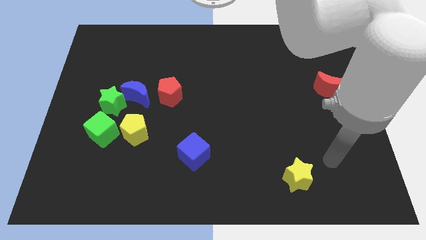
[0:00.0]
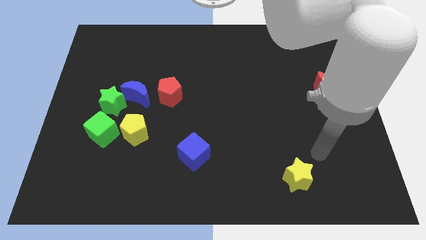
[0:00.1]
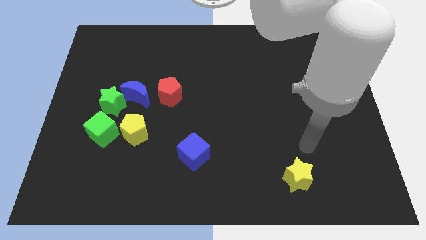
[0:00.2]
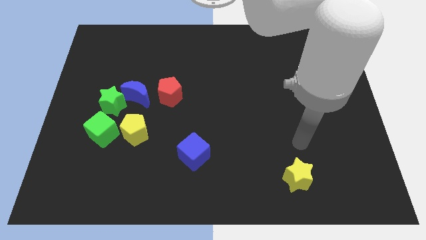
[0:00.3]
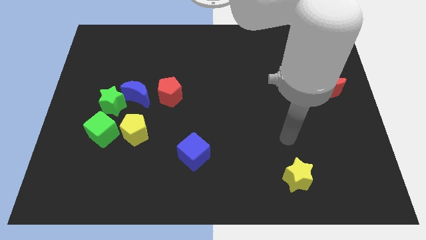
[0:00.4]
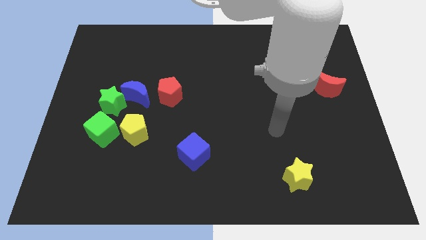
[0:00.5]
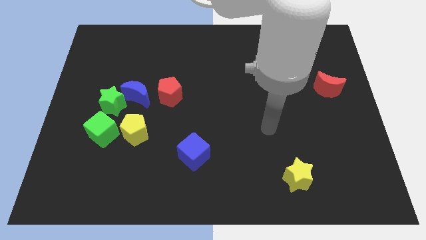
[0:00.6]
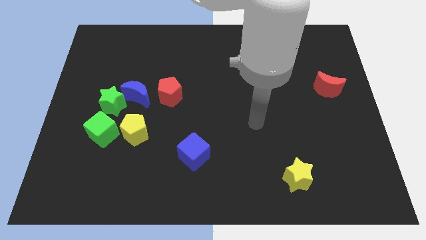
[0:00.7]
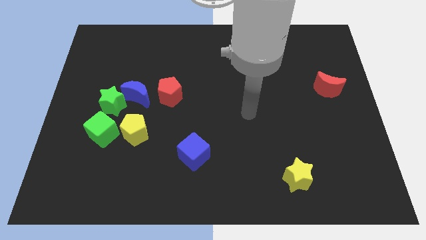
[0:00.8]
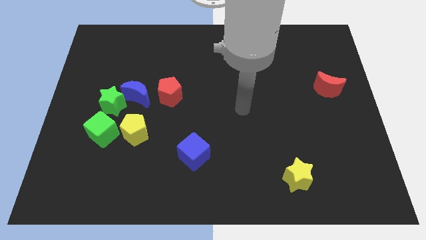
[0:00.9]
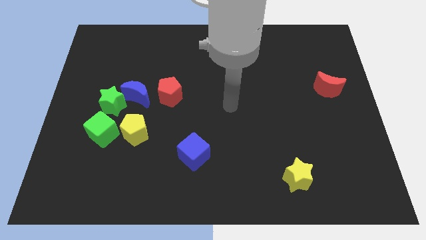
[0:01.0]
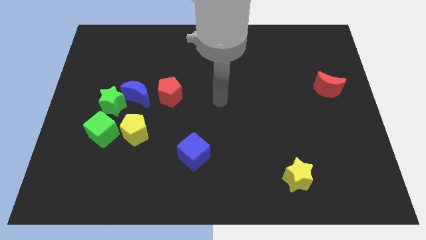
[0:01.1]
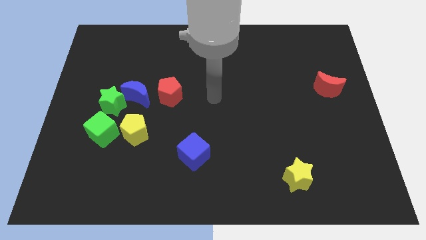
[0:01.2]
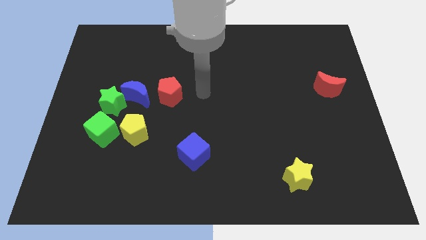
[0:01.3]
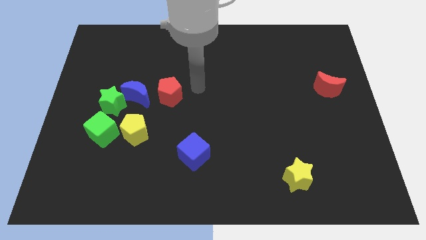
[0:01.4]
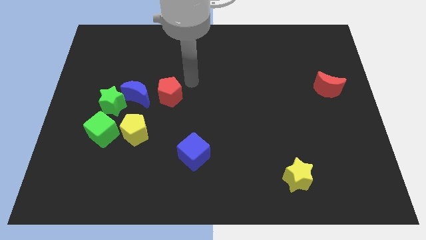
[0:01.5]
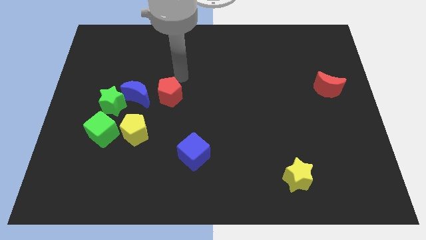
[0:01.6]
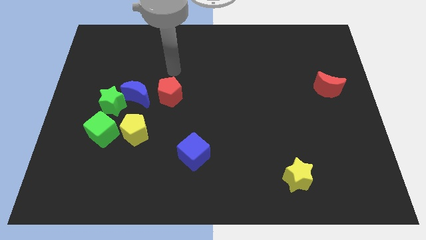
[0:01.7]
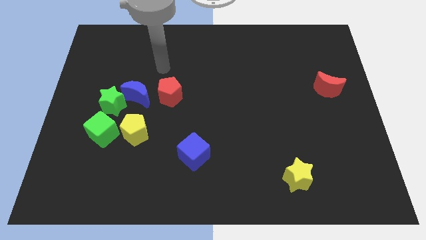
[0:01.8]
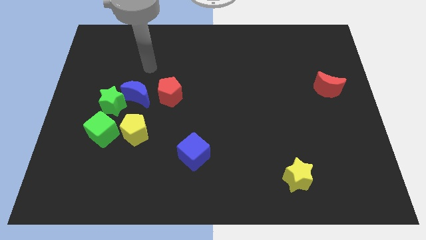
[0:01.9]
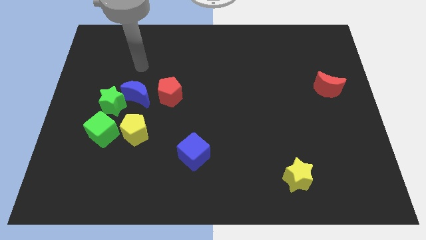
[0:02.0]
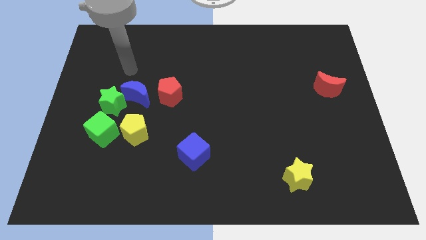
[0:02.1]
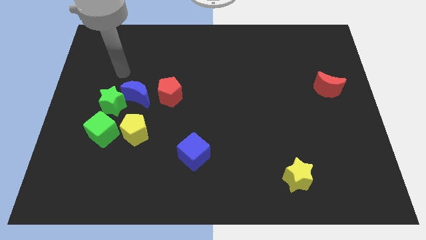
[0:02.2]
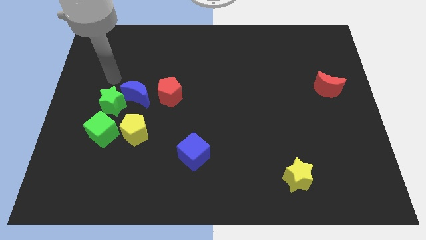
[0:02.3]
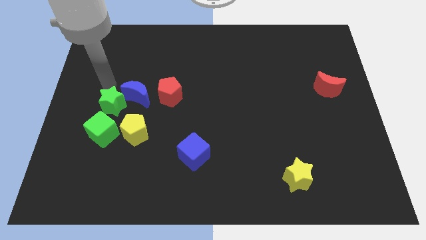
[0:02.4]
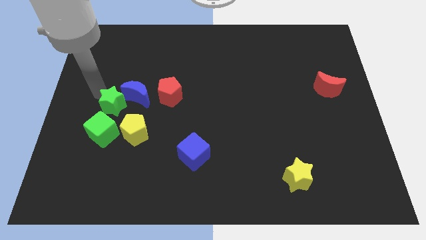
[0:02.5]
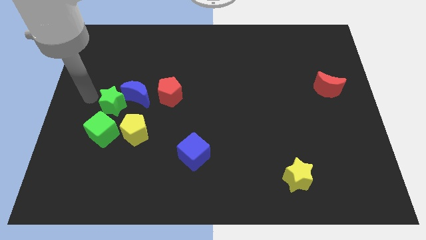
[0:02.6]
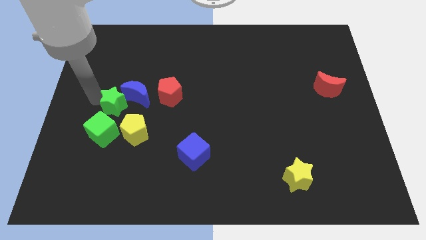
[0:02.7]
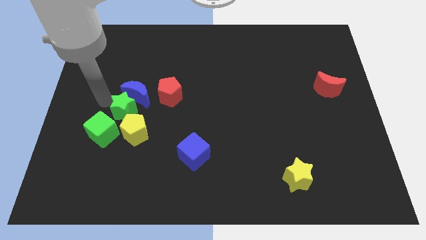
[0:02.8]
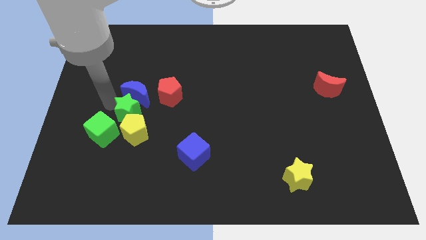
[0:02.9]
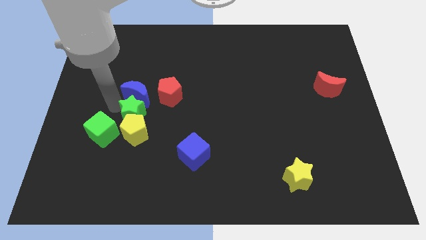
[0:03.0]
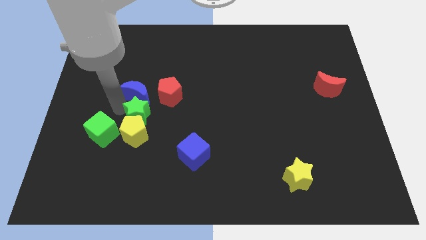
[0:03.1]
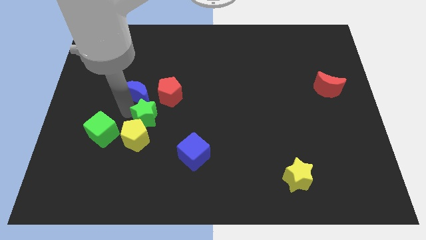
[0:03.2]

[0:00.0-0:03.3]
push the green star to the right slightly

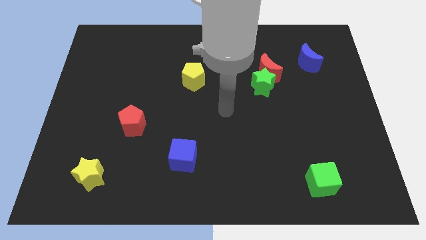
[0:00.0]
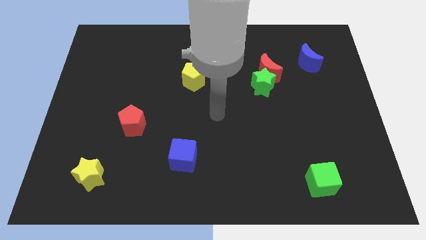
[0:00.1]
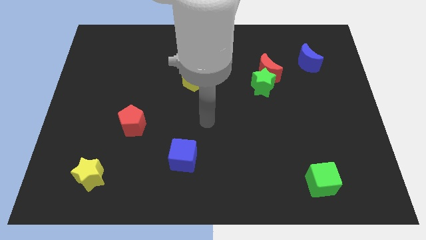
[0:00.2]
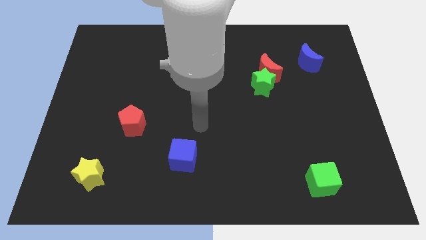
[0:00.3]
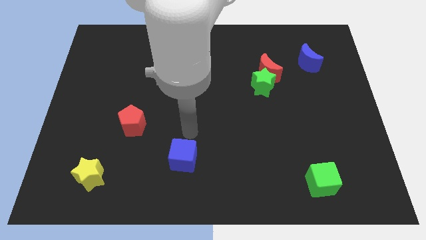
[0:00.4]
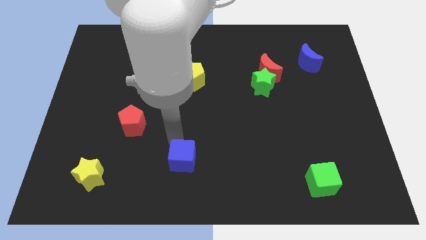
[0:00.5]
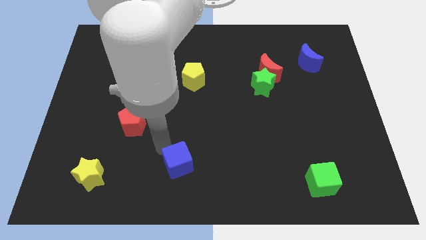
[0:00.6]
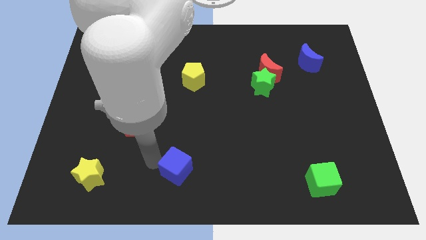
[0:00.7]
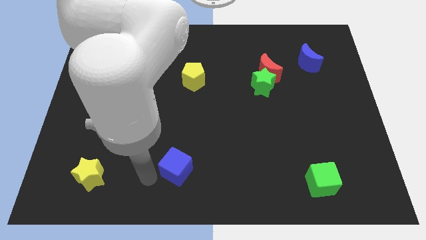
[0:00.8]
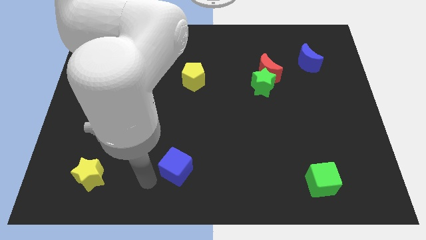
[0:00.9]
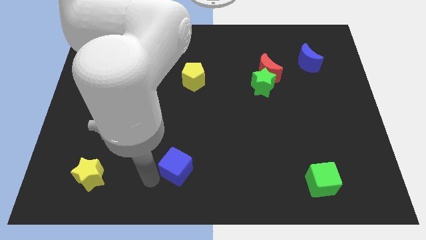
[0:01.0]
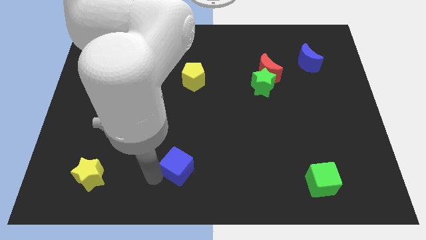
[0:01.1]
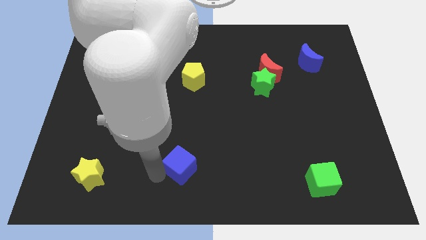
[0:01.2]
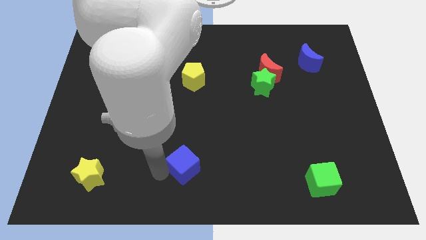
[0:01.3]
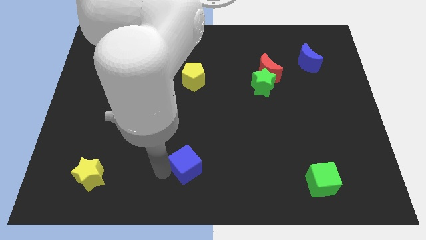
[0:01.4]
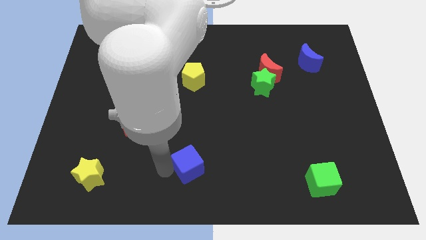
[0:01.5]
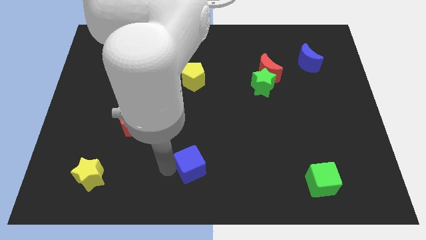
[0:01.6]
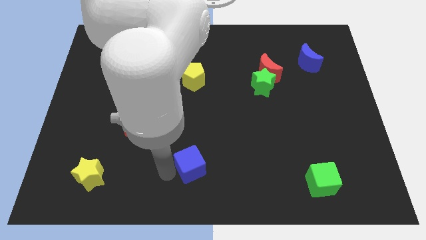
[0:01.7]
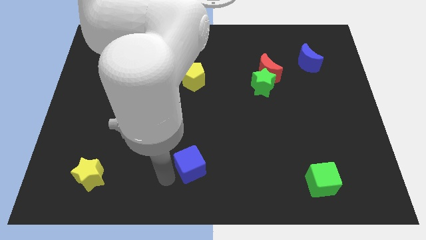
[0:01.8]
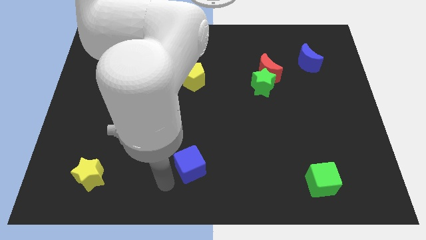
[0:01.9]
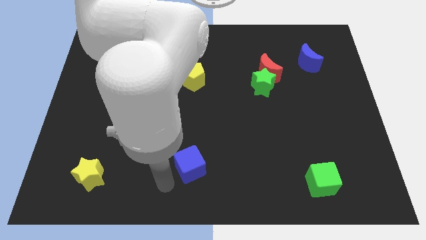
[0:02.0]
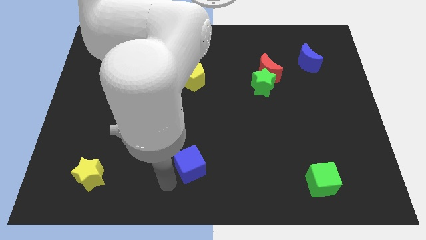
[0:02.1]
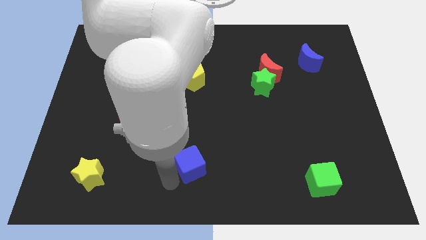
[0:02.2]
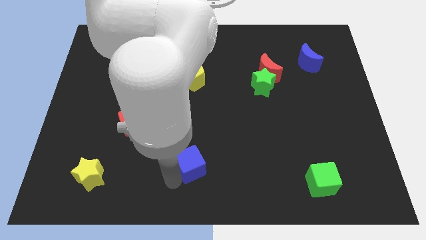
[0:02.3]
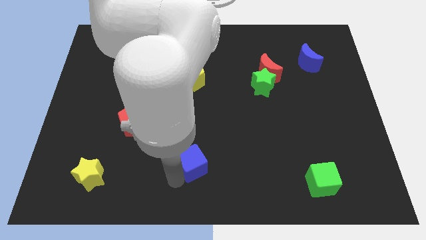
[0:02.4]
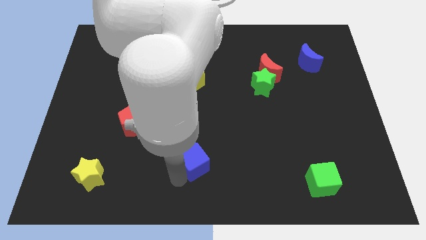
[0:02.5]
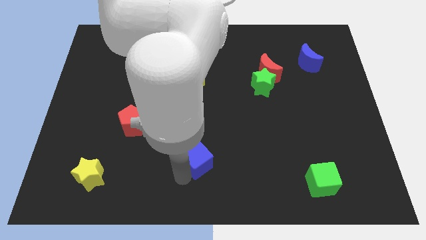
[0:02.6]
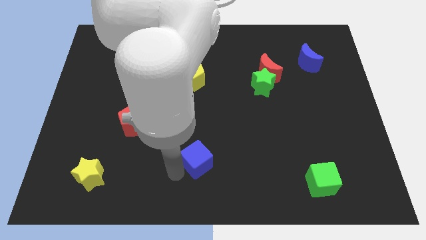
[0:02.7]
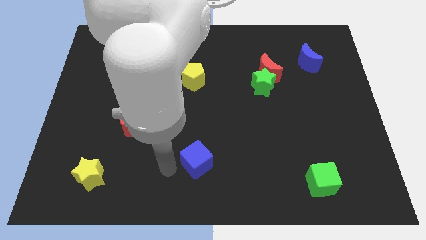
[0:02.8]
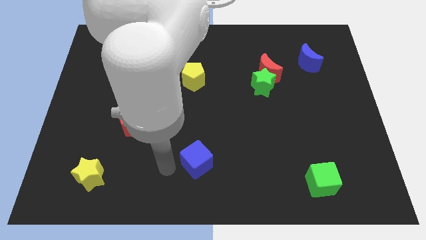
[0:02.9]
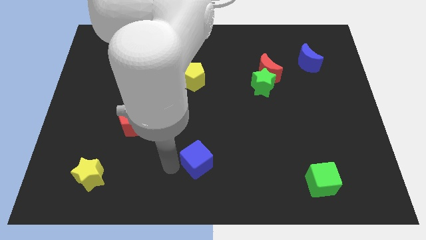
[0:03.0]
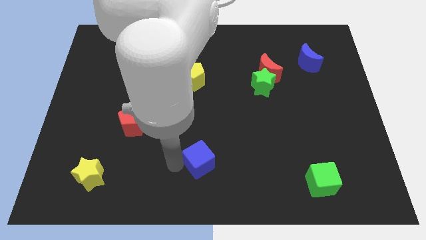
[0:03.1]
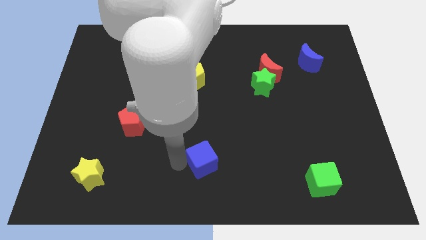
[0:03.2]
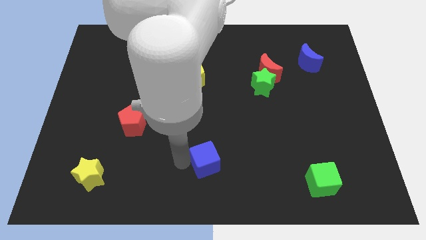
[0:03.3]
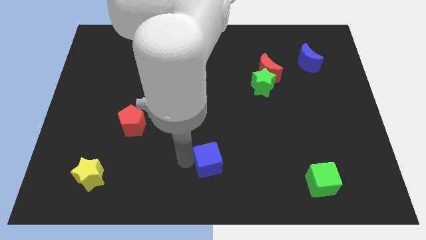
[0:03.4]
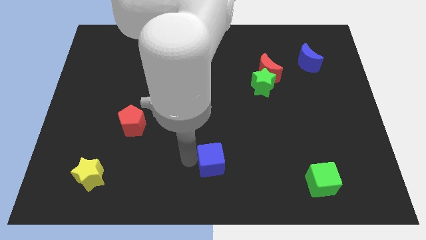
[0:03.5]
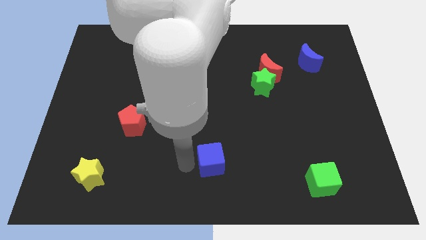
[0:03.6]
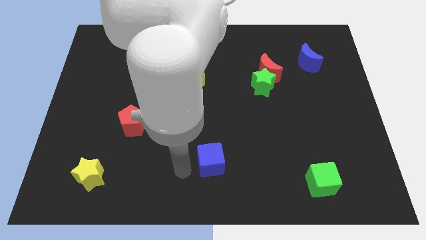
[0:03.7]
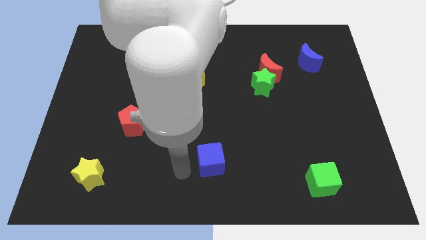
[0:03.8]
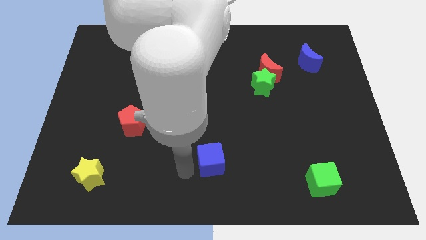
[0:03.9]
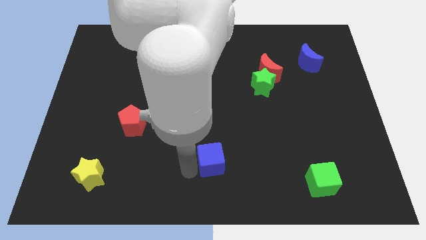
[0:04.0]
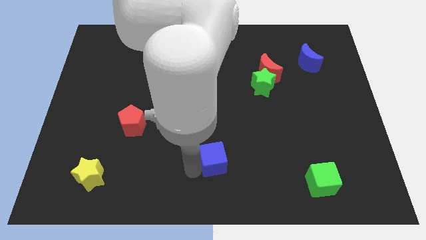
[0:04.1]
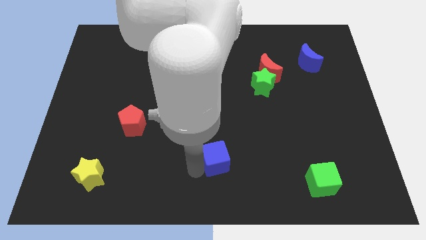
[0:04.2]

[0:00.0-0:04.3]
slightly move the blue cube to the right

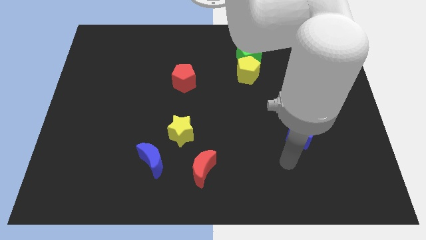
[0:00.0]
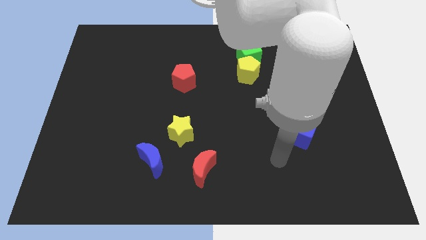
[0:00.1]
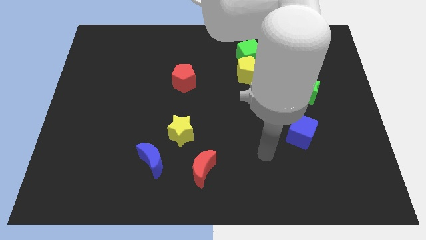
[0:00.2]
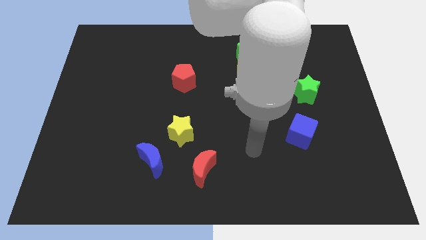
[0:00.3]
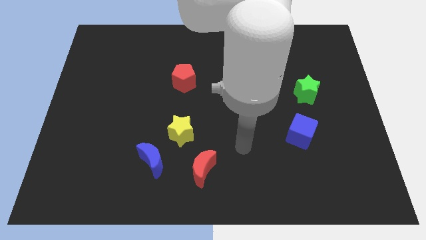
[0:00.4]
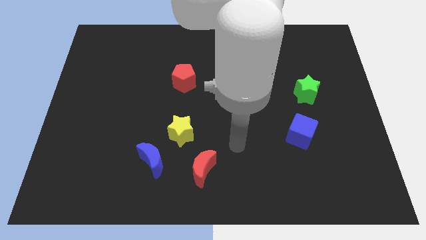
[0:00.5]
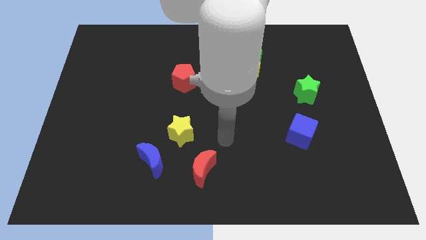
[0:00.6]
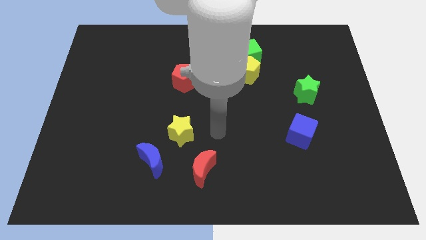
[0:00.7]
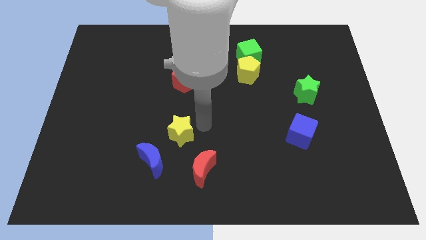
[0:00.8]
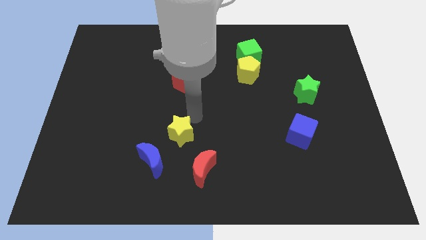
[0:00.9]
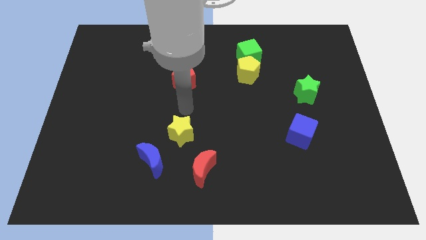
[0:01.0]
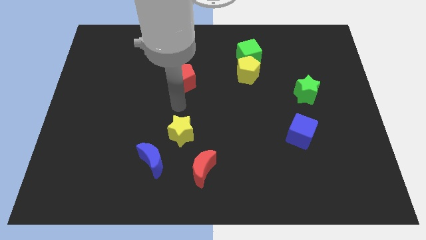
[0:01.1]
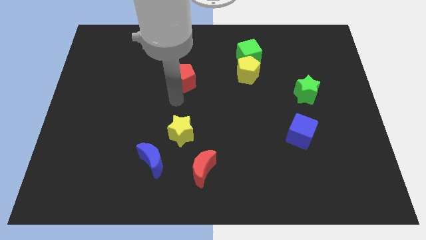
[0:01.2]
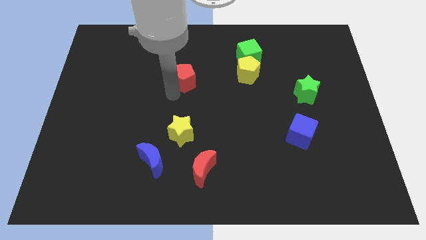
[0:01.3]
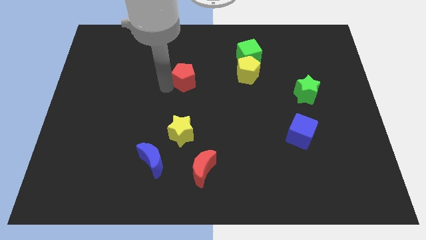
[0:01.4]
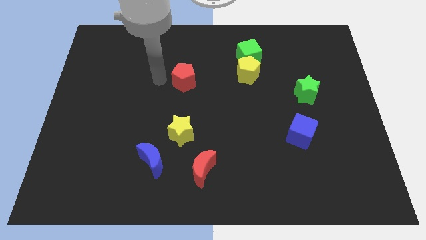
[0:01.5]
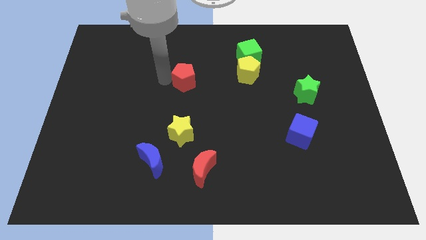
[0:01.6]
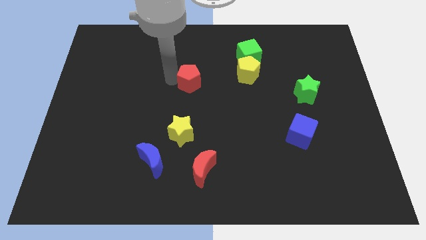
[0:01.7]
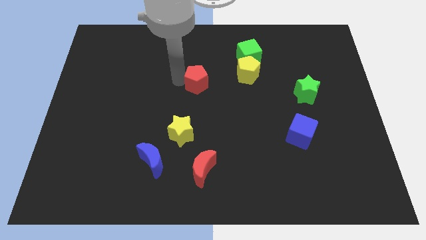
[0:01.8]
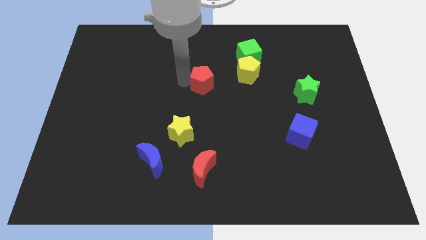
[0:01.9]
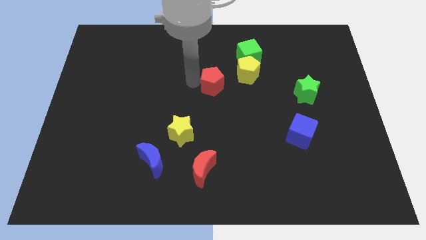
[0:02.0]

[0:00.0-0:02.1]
slightly slide the red pentagon right
